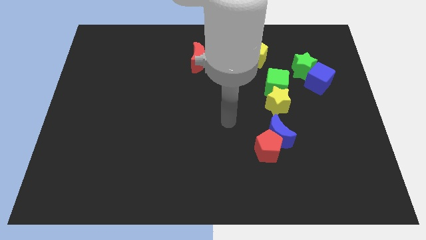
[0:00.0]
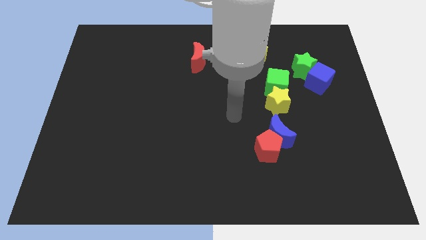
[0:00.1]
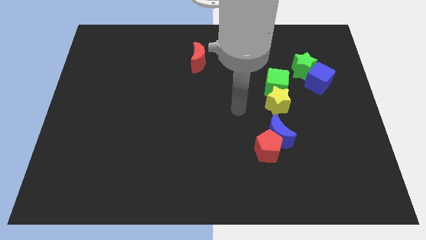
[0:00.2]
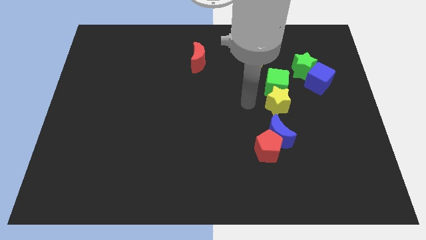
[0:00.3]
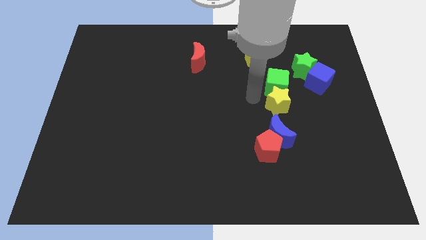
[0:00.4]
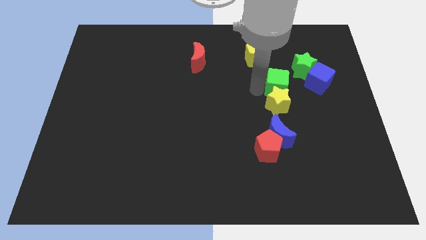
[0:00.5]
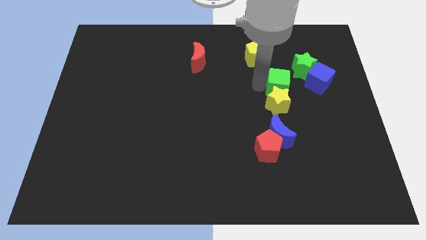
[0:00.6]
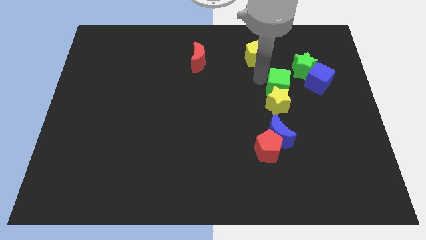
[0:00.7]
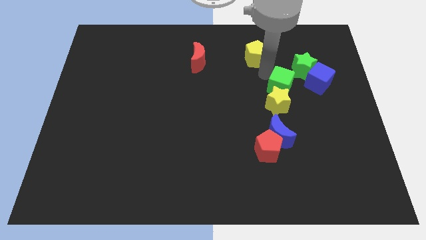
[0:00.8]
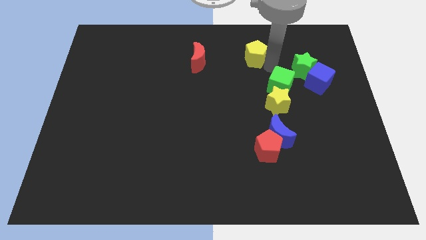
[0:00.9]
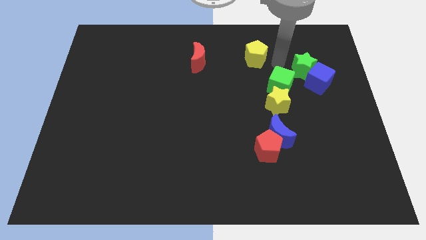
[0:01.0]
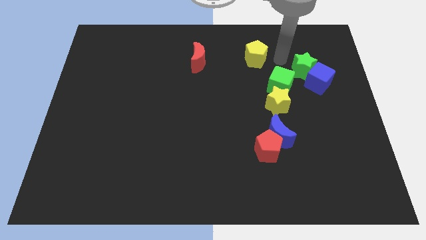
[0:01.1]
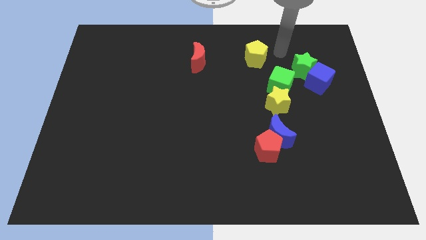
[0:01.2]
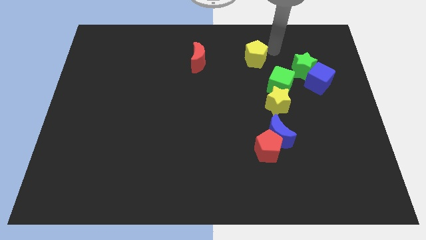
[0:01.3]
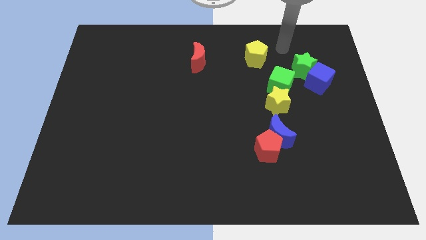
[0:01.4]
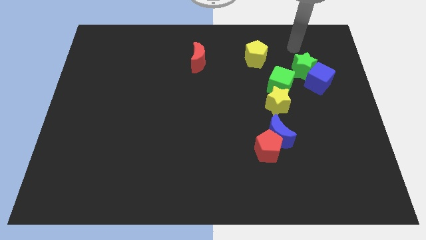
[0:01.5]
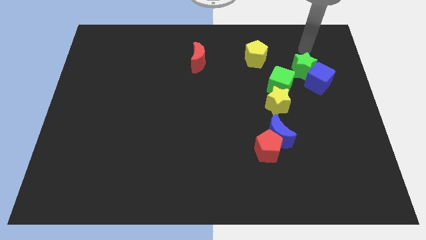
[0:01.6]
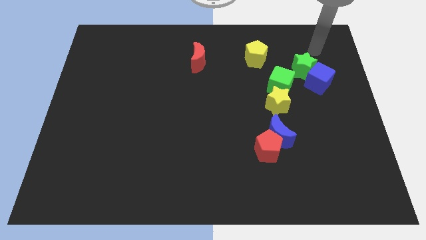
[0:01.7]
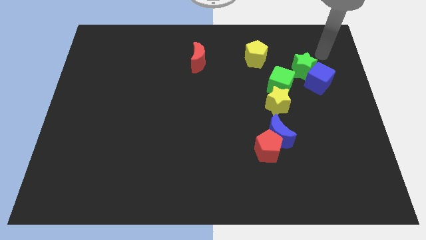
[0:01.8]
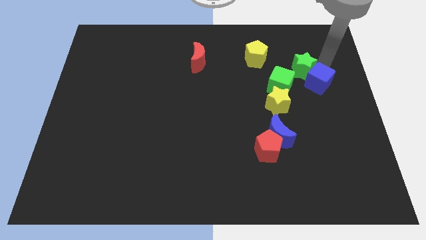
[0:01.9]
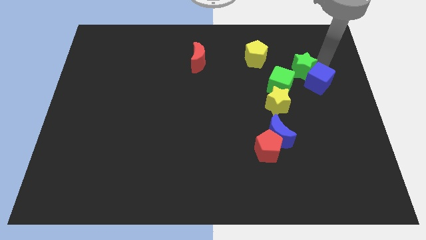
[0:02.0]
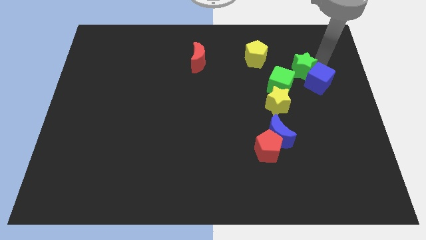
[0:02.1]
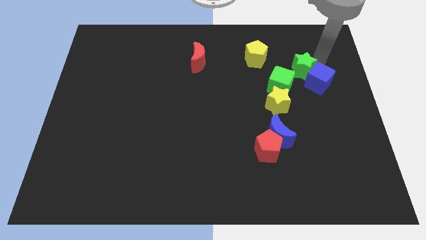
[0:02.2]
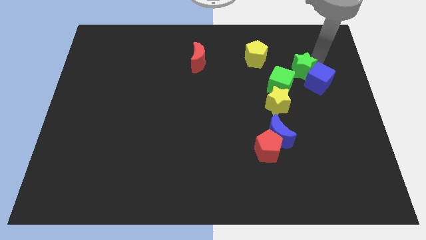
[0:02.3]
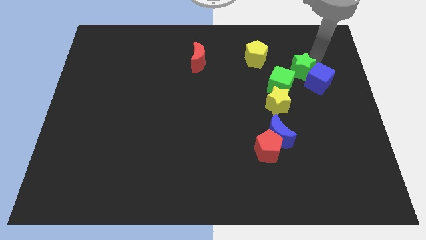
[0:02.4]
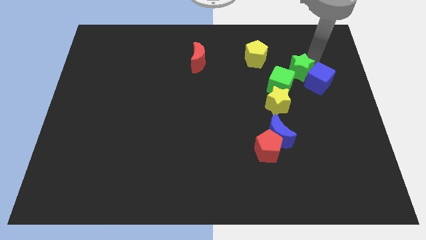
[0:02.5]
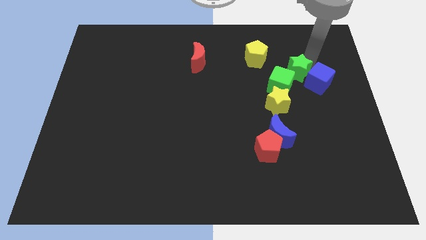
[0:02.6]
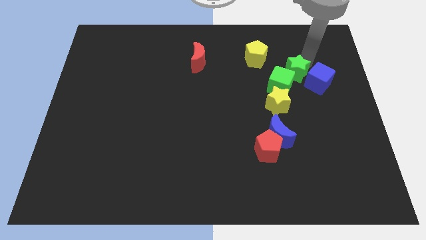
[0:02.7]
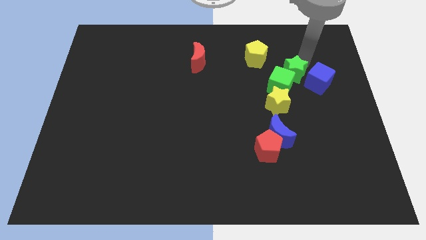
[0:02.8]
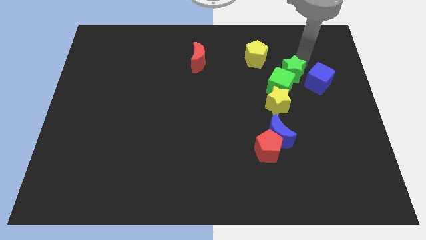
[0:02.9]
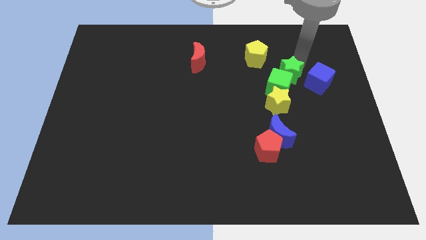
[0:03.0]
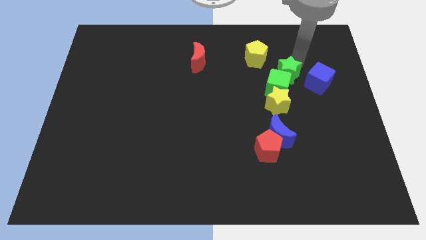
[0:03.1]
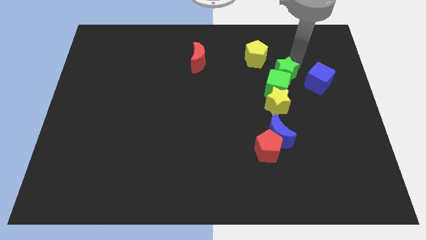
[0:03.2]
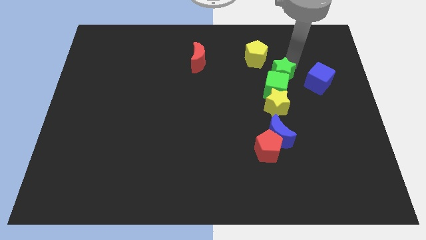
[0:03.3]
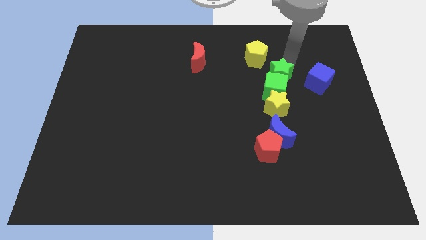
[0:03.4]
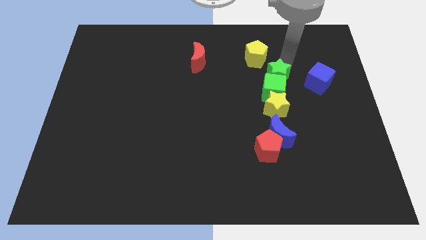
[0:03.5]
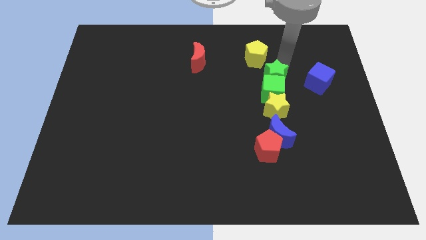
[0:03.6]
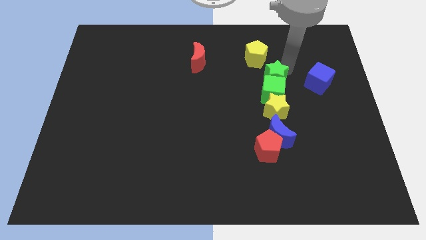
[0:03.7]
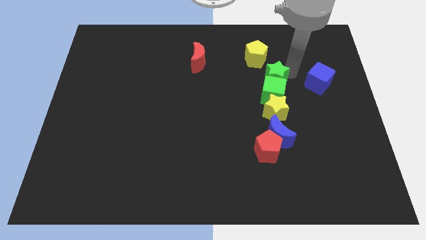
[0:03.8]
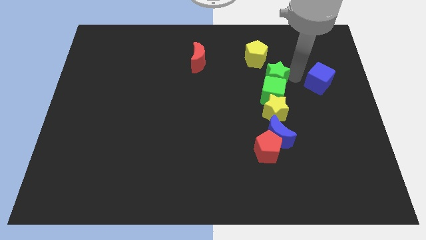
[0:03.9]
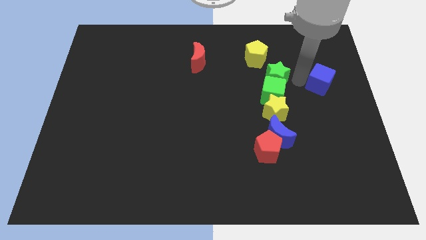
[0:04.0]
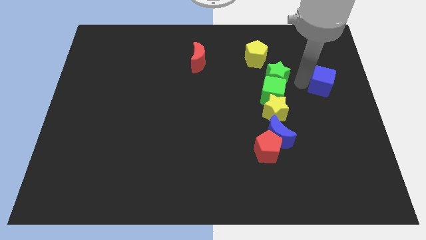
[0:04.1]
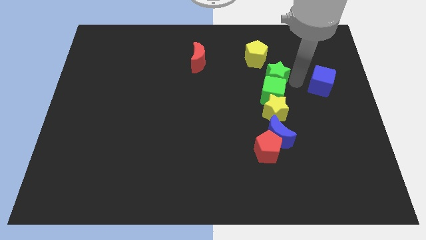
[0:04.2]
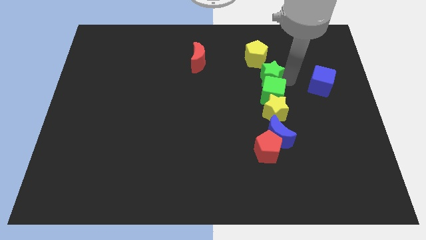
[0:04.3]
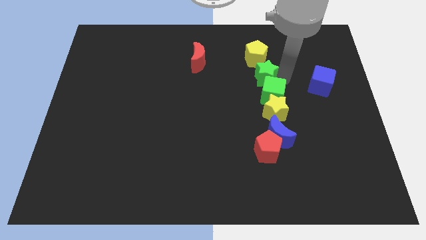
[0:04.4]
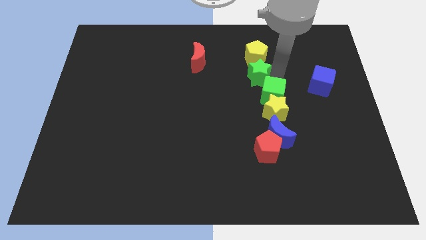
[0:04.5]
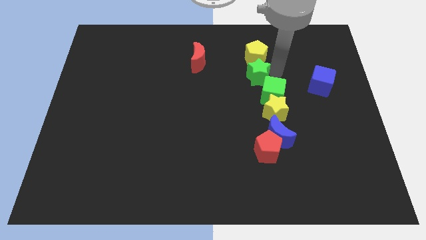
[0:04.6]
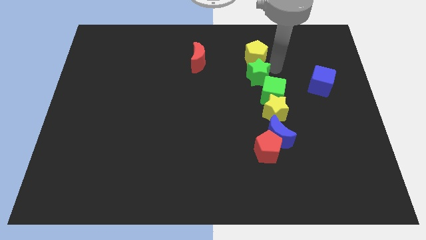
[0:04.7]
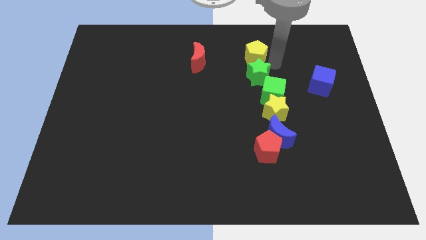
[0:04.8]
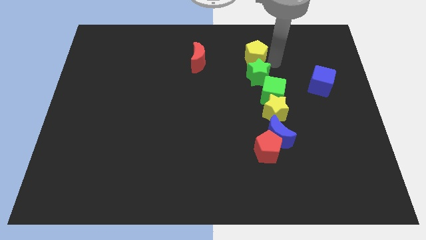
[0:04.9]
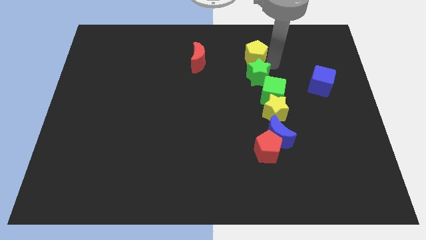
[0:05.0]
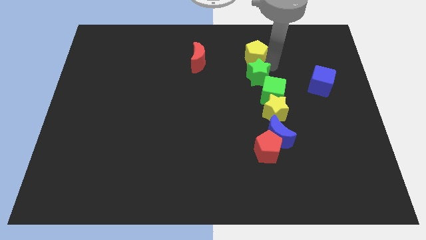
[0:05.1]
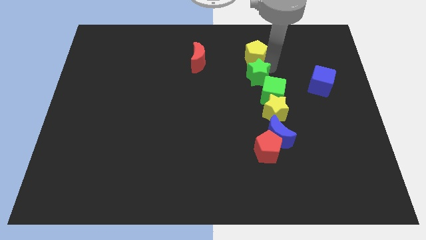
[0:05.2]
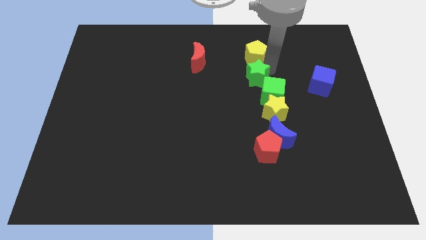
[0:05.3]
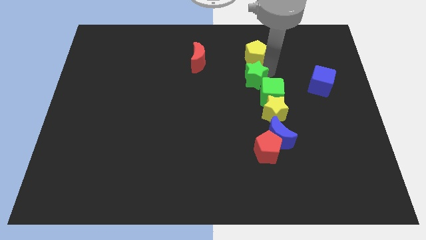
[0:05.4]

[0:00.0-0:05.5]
put the green star to the middle of the board
